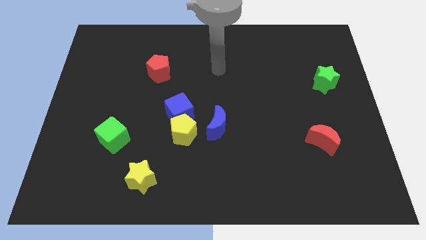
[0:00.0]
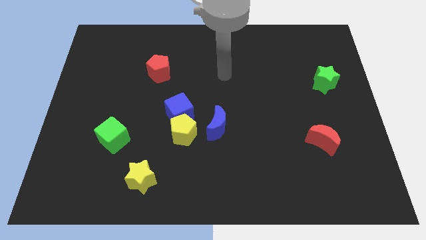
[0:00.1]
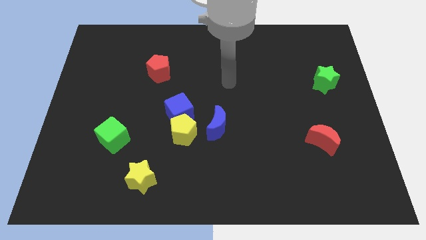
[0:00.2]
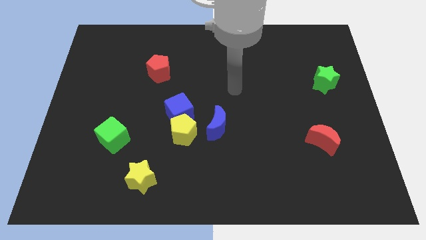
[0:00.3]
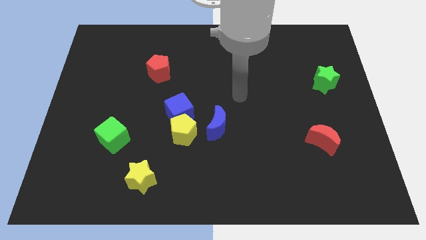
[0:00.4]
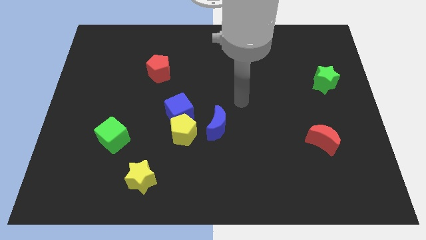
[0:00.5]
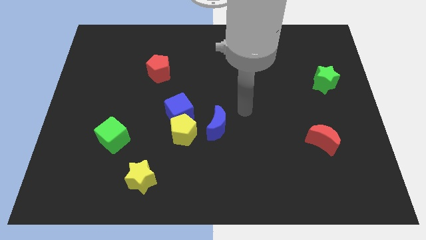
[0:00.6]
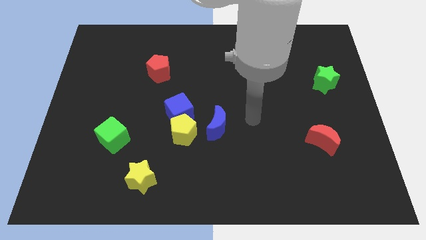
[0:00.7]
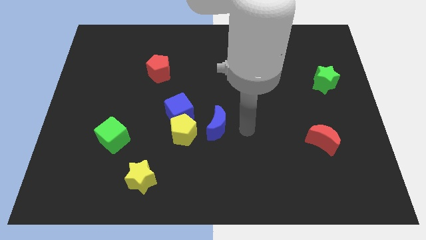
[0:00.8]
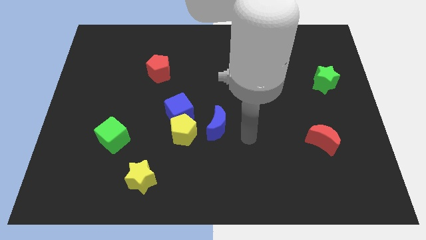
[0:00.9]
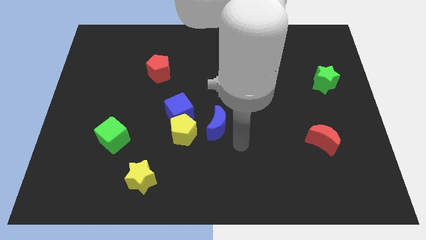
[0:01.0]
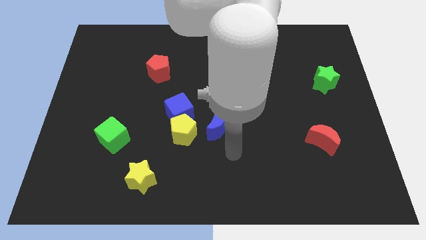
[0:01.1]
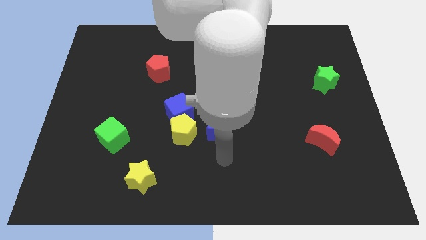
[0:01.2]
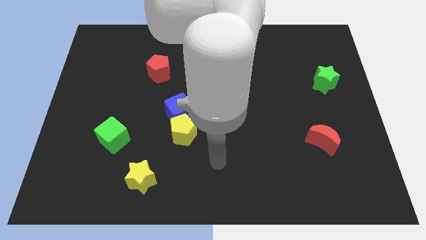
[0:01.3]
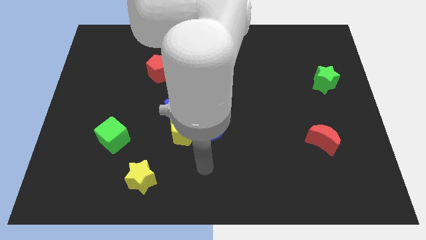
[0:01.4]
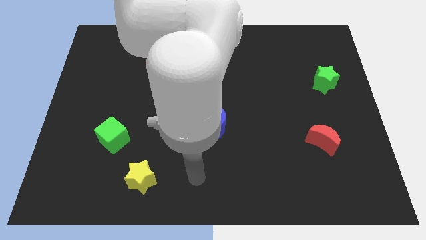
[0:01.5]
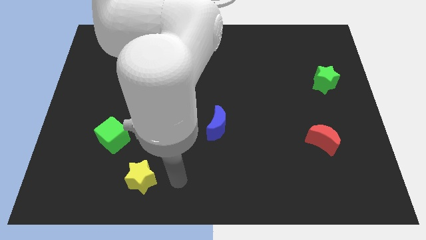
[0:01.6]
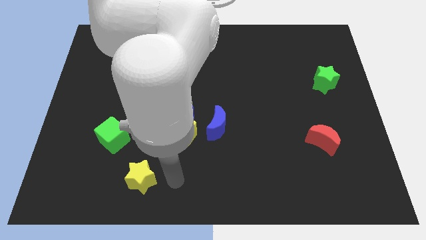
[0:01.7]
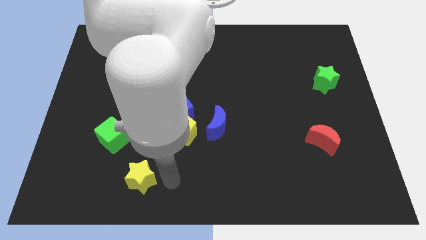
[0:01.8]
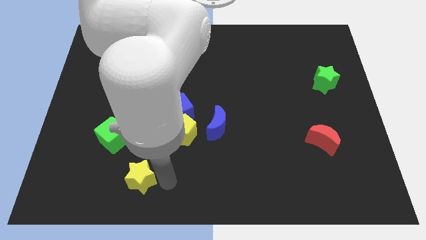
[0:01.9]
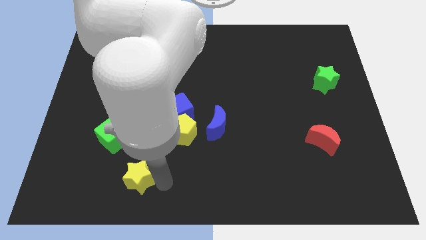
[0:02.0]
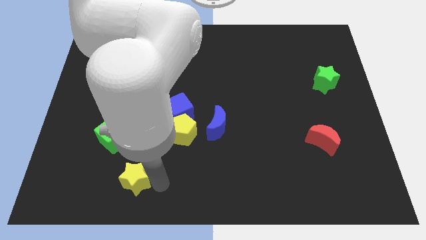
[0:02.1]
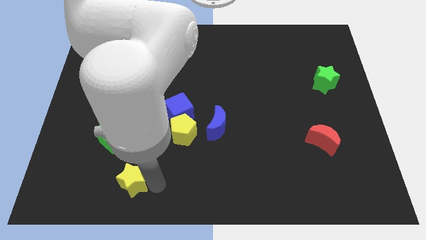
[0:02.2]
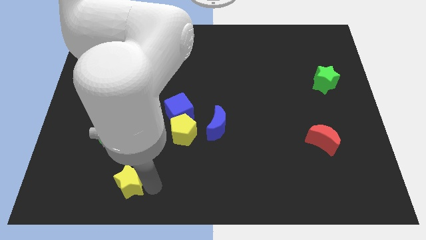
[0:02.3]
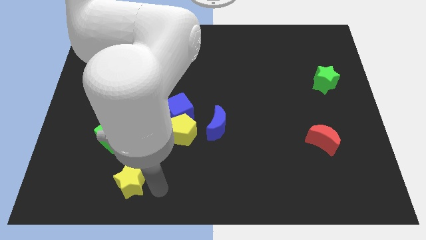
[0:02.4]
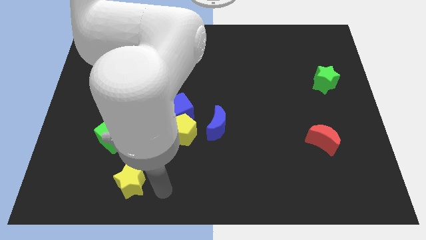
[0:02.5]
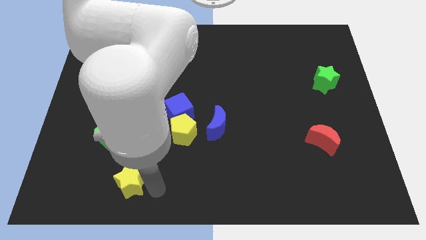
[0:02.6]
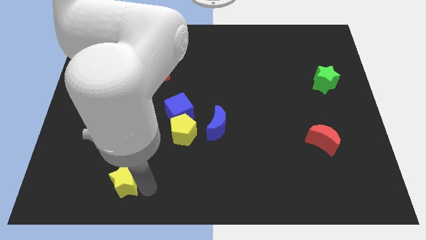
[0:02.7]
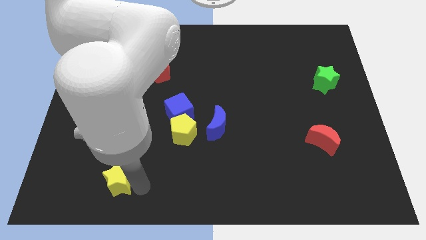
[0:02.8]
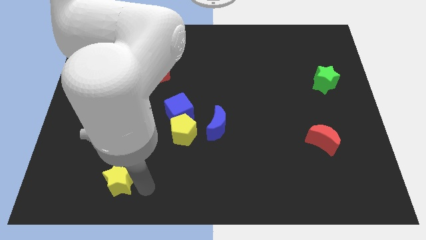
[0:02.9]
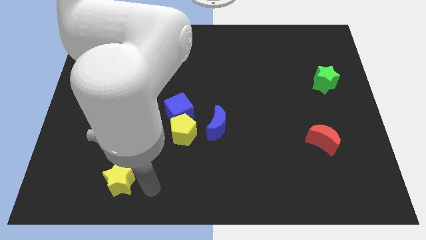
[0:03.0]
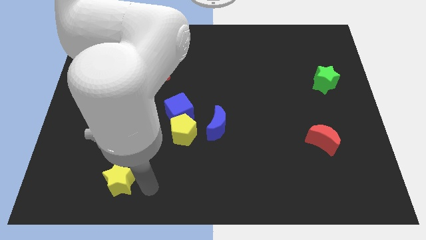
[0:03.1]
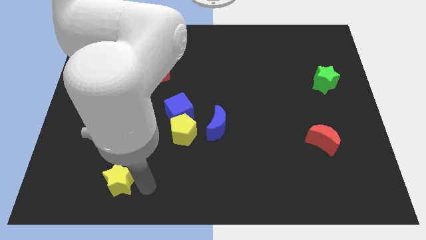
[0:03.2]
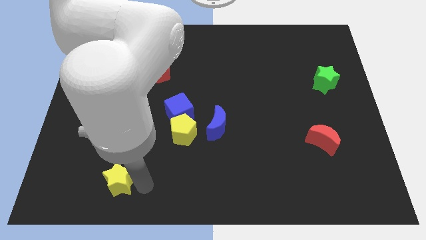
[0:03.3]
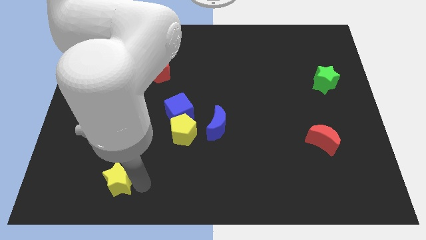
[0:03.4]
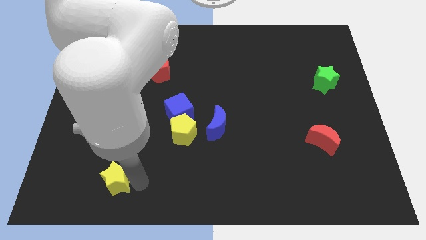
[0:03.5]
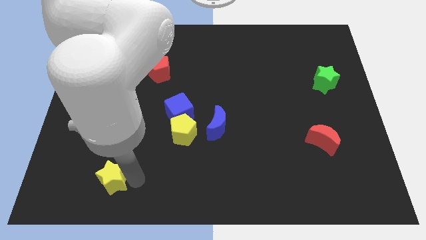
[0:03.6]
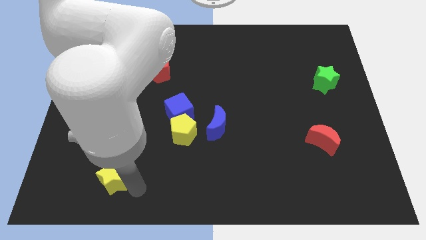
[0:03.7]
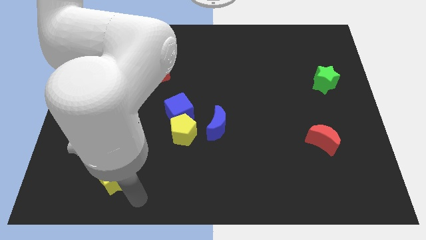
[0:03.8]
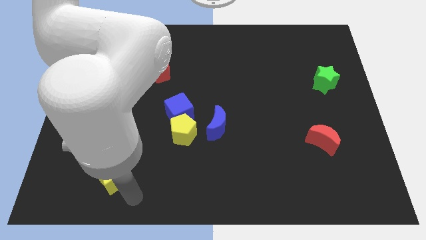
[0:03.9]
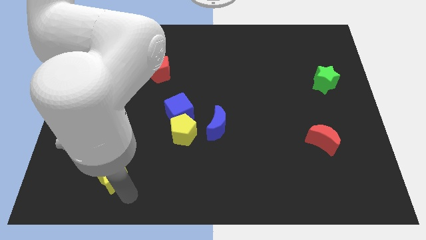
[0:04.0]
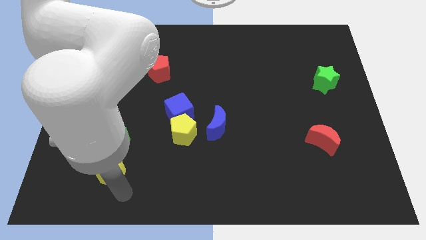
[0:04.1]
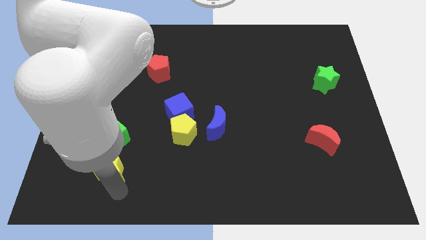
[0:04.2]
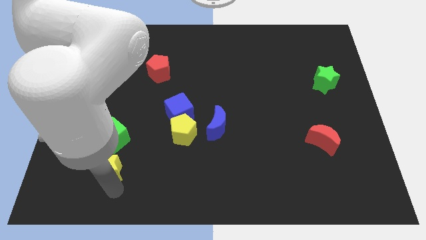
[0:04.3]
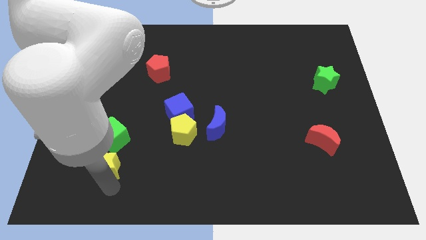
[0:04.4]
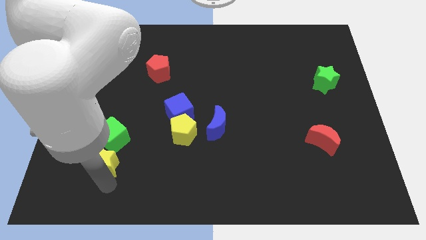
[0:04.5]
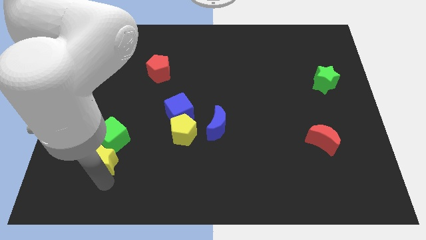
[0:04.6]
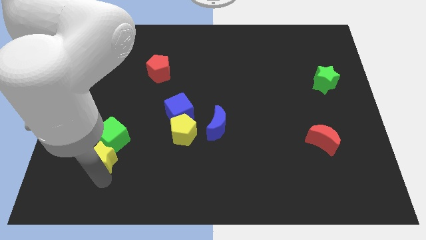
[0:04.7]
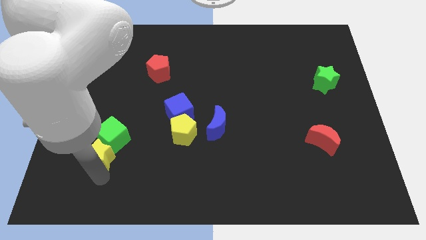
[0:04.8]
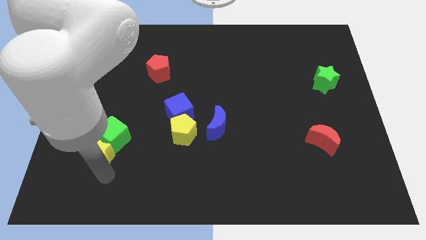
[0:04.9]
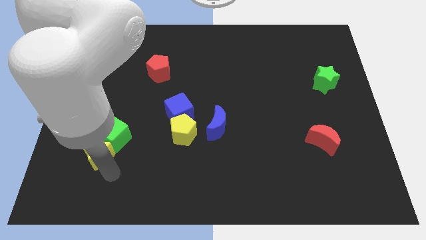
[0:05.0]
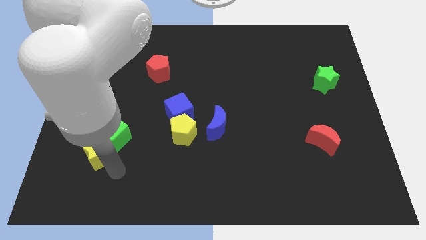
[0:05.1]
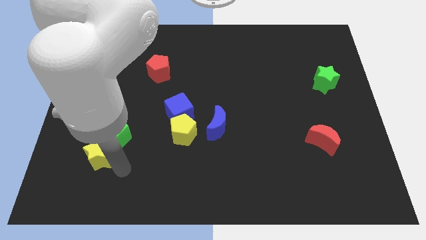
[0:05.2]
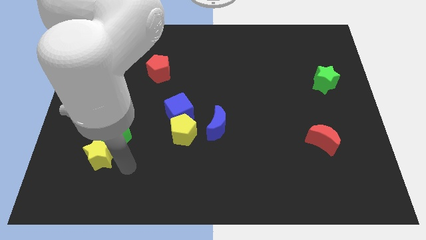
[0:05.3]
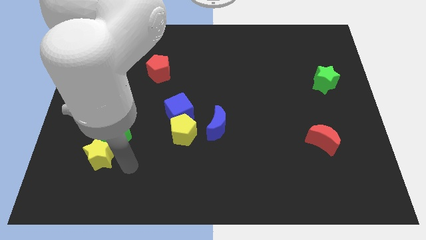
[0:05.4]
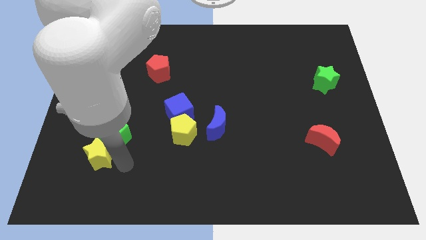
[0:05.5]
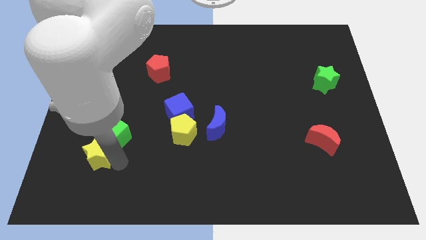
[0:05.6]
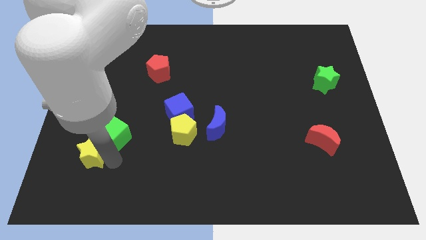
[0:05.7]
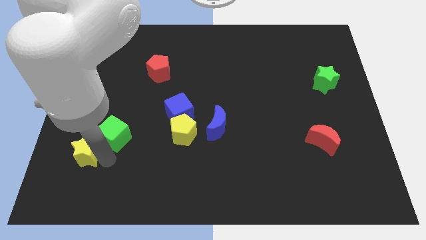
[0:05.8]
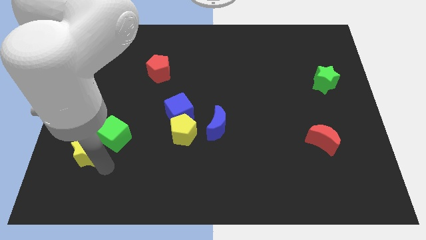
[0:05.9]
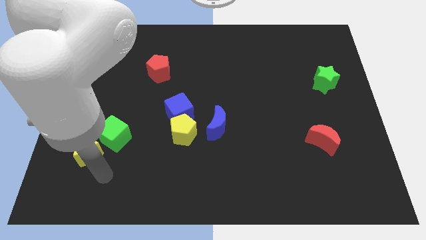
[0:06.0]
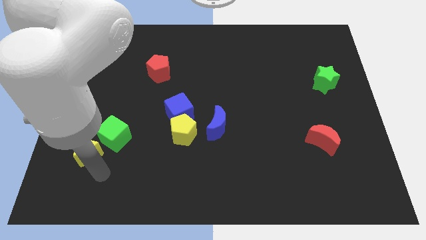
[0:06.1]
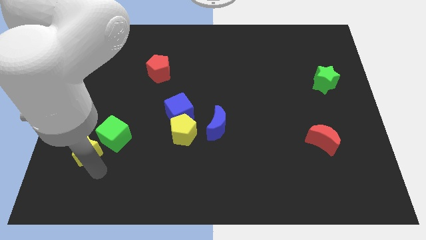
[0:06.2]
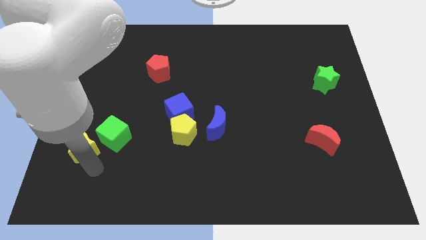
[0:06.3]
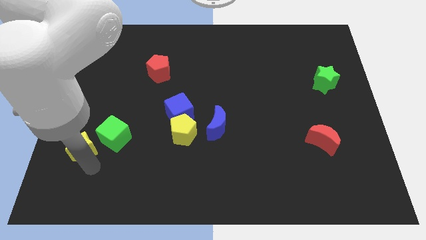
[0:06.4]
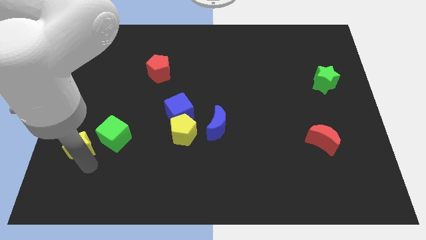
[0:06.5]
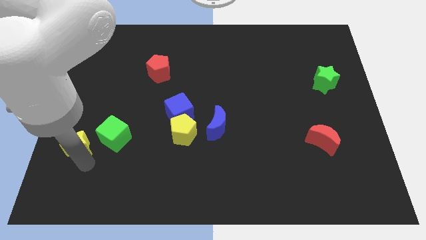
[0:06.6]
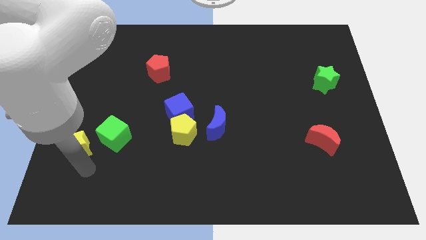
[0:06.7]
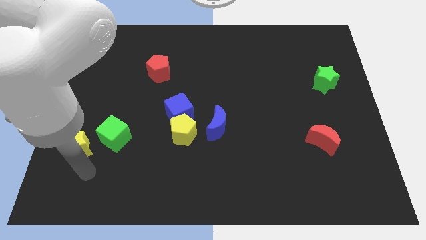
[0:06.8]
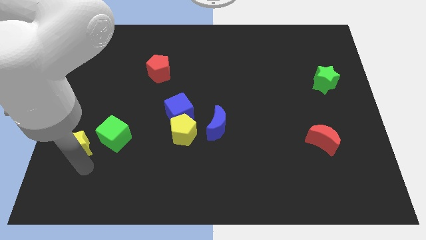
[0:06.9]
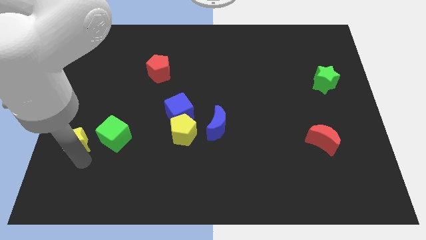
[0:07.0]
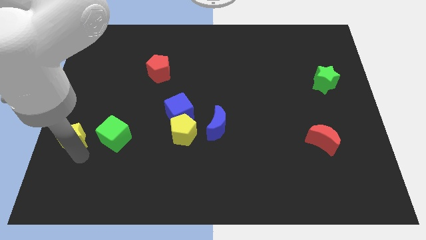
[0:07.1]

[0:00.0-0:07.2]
move the yellow star to the left side
